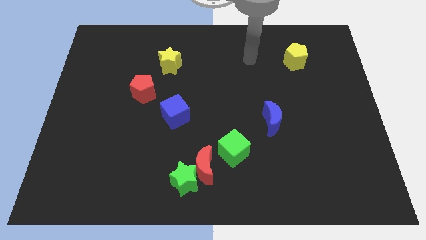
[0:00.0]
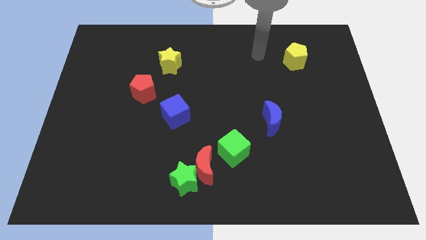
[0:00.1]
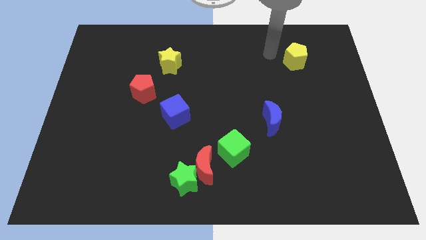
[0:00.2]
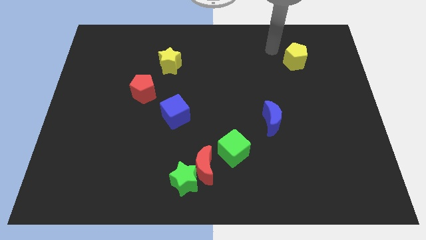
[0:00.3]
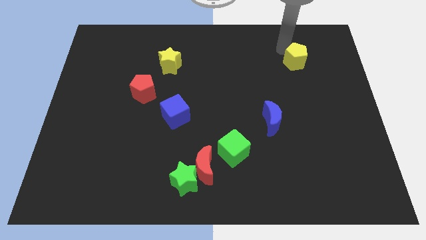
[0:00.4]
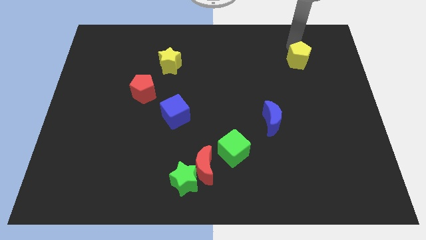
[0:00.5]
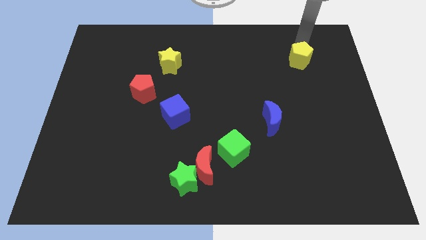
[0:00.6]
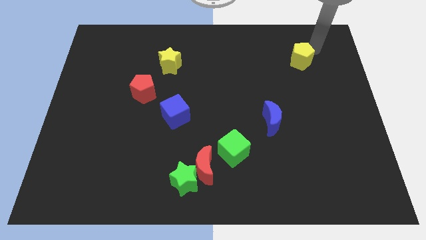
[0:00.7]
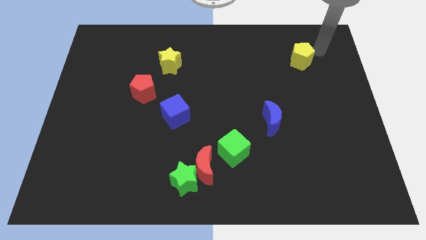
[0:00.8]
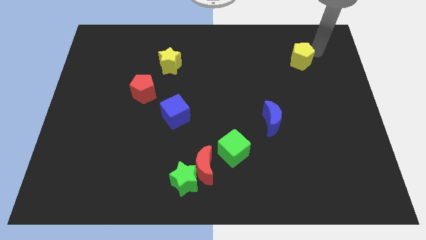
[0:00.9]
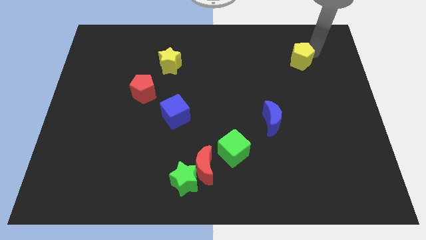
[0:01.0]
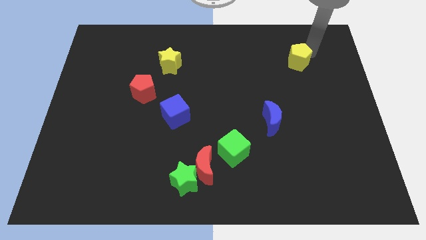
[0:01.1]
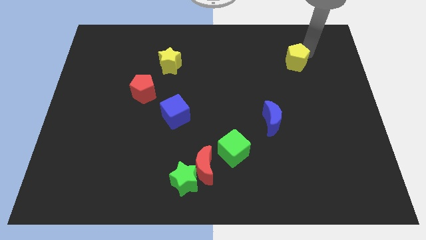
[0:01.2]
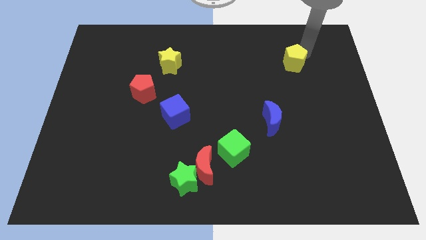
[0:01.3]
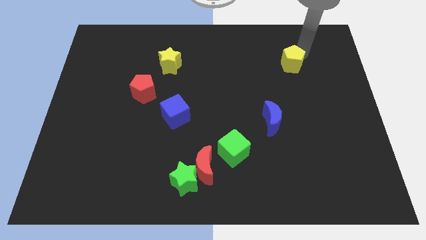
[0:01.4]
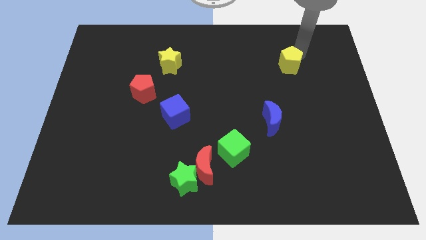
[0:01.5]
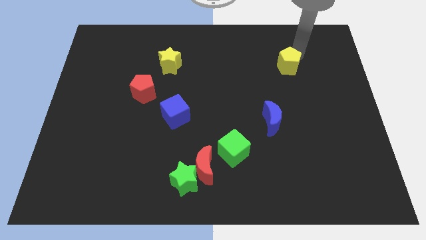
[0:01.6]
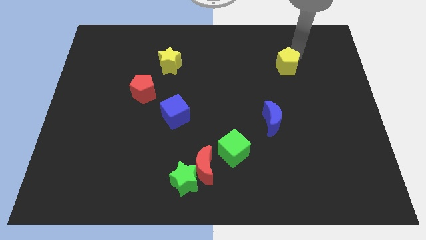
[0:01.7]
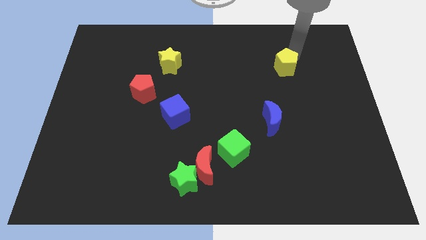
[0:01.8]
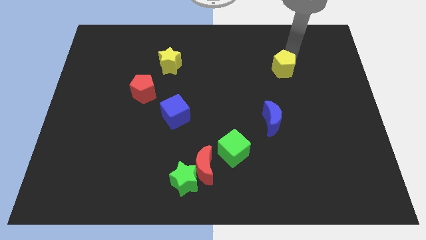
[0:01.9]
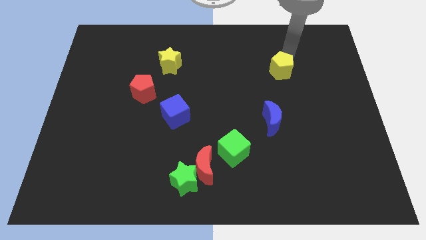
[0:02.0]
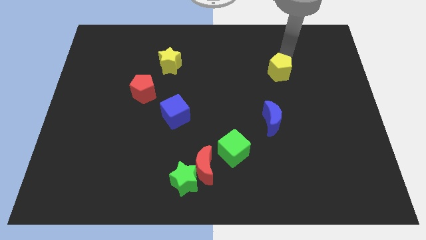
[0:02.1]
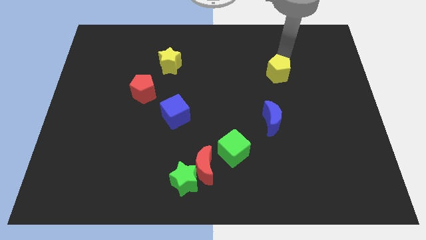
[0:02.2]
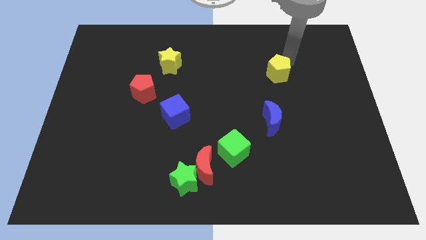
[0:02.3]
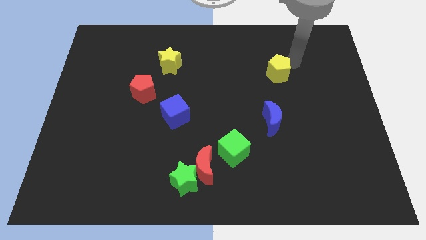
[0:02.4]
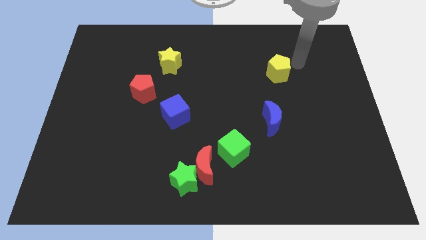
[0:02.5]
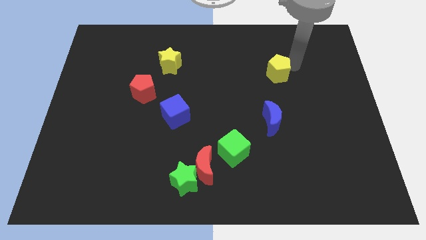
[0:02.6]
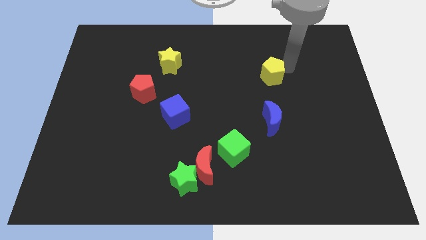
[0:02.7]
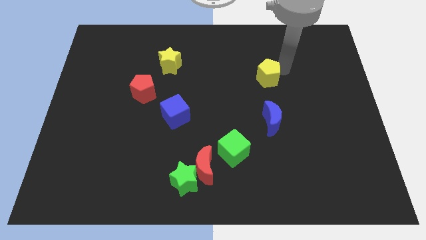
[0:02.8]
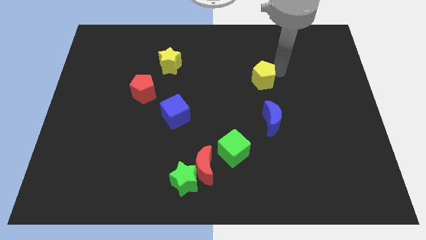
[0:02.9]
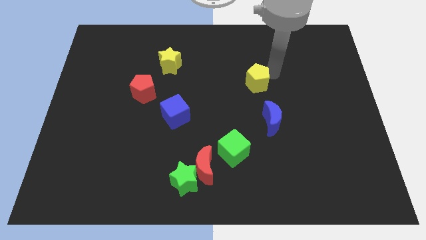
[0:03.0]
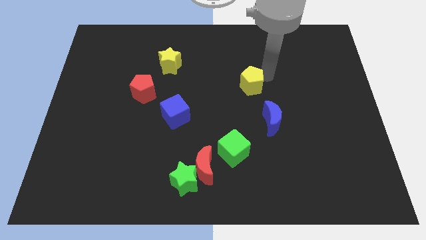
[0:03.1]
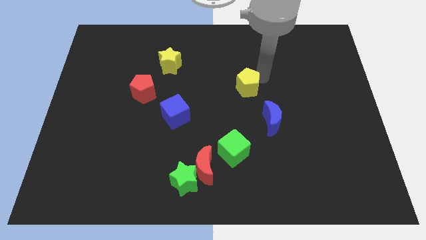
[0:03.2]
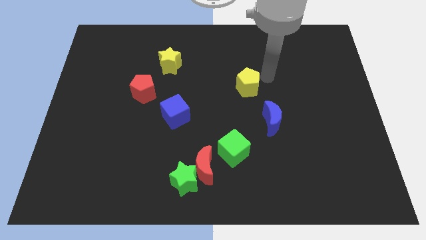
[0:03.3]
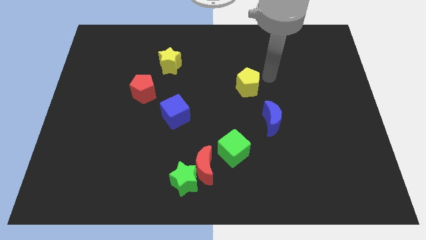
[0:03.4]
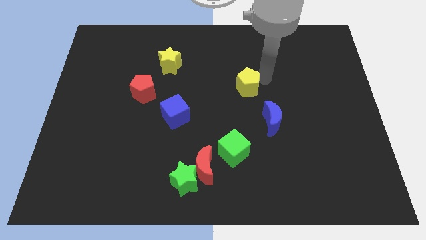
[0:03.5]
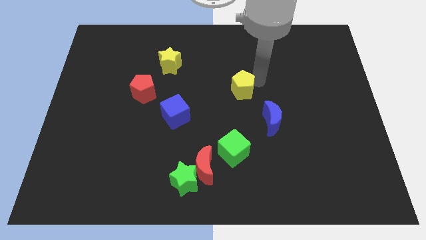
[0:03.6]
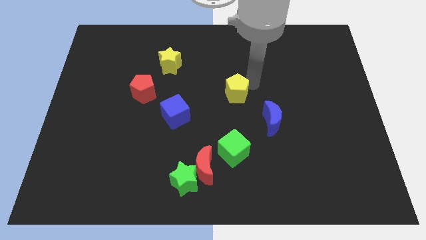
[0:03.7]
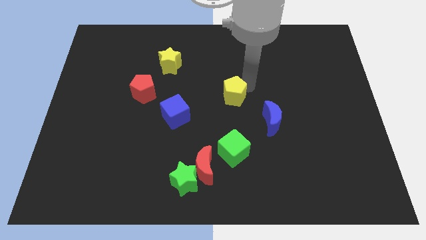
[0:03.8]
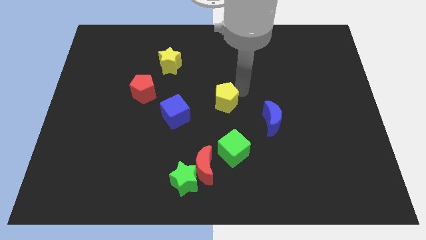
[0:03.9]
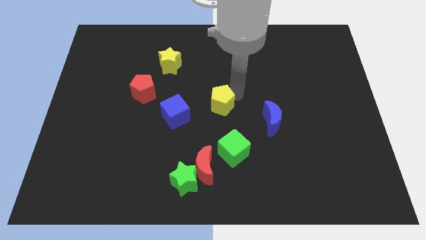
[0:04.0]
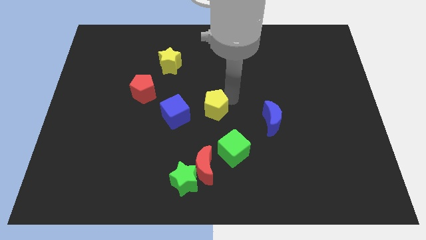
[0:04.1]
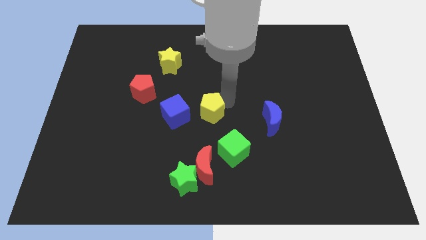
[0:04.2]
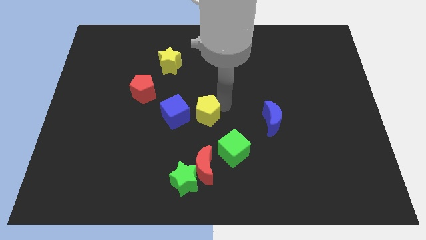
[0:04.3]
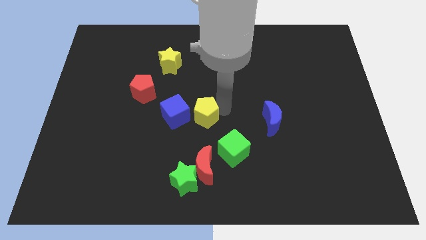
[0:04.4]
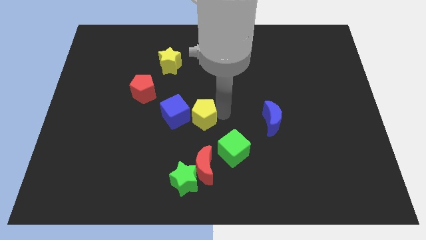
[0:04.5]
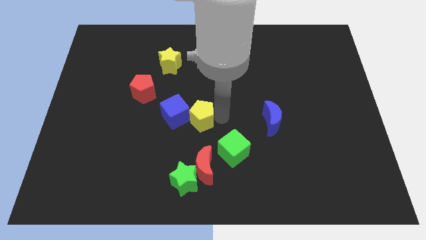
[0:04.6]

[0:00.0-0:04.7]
slide the yellow pentagon towards the blue cube

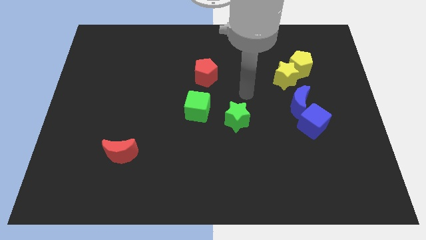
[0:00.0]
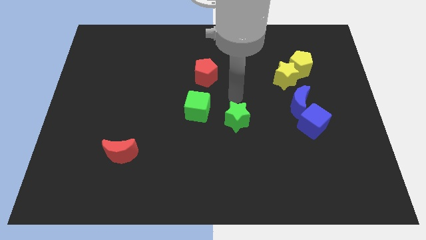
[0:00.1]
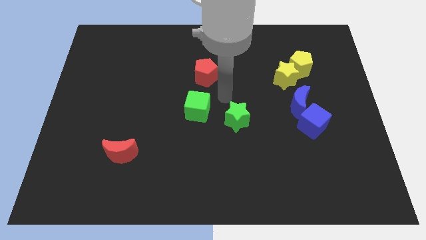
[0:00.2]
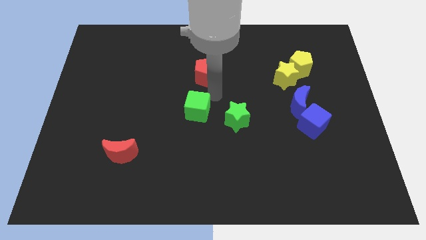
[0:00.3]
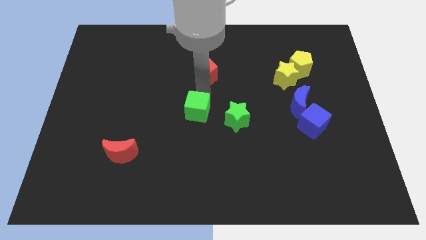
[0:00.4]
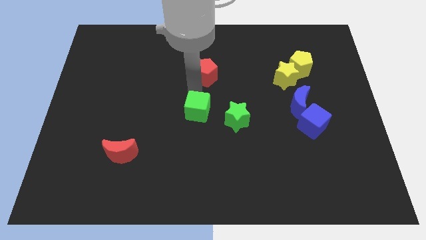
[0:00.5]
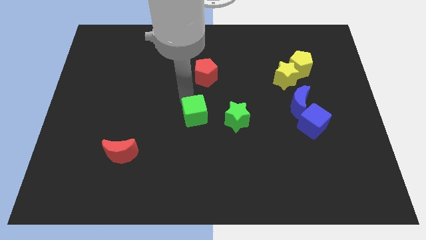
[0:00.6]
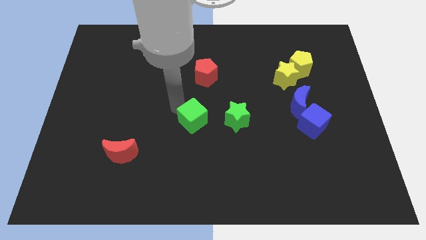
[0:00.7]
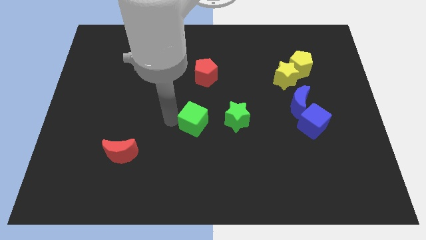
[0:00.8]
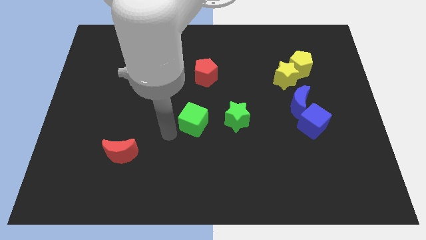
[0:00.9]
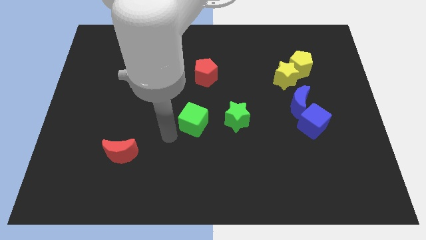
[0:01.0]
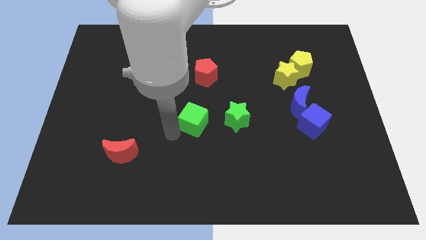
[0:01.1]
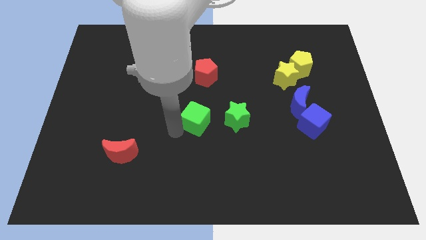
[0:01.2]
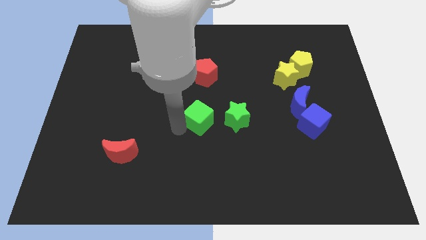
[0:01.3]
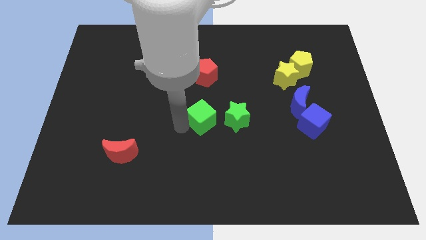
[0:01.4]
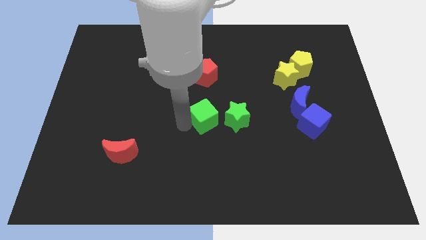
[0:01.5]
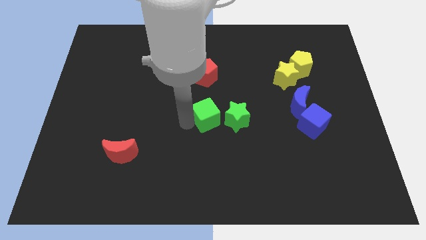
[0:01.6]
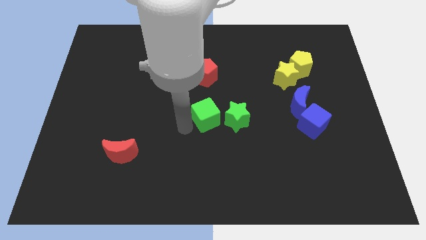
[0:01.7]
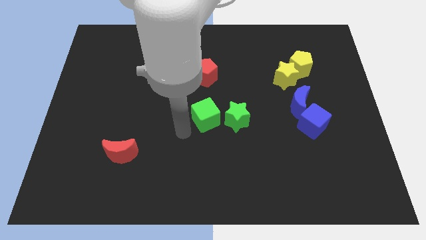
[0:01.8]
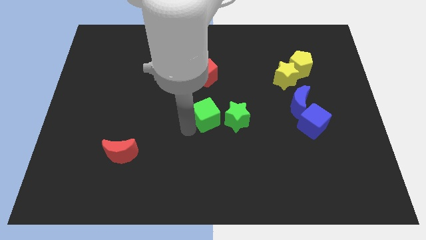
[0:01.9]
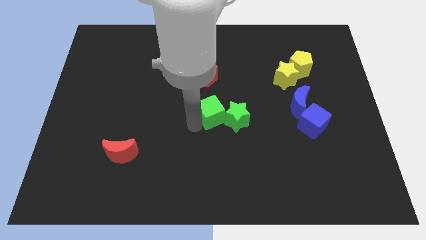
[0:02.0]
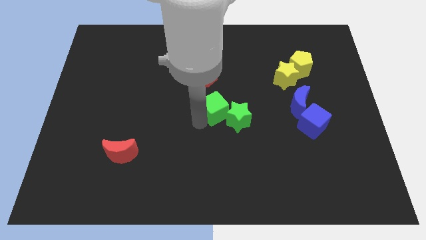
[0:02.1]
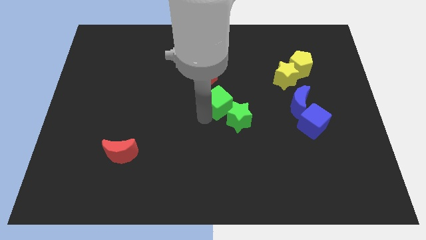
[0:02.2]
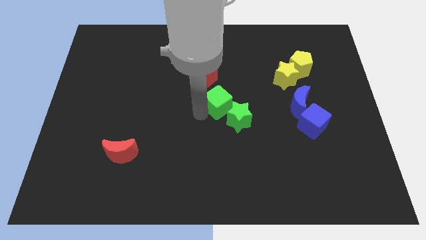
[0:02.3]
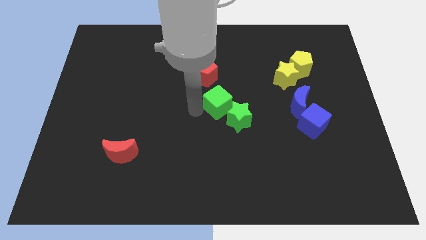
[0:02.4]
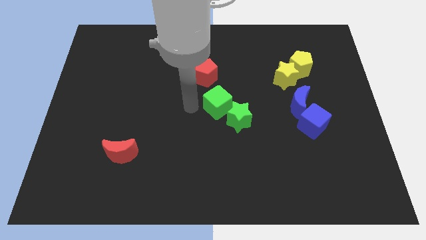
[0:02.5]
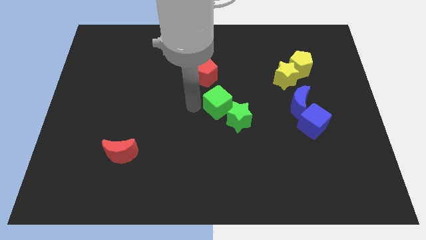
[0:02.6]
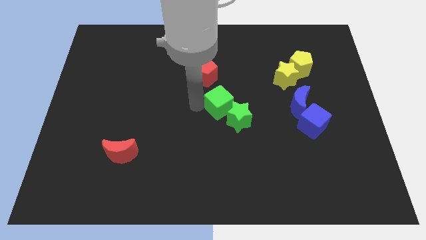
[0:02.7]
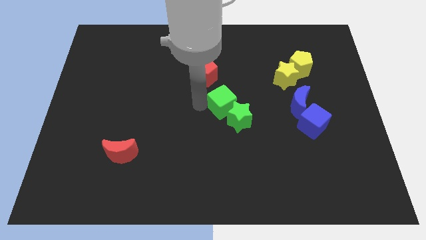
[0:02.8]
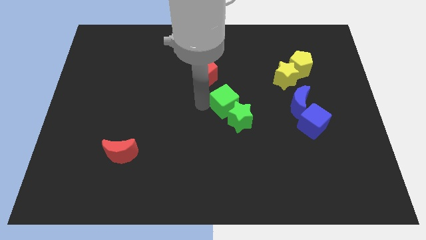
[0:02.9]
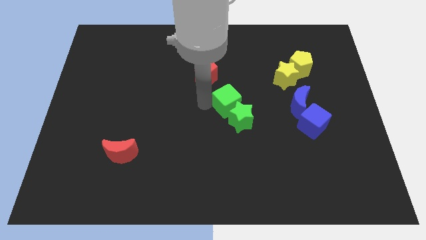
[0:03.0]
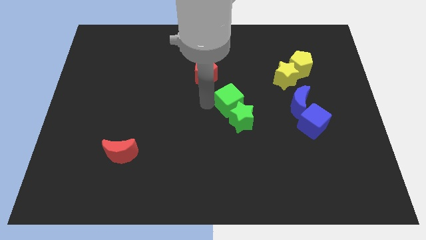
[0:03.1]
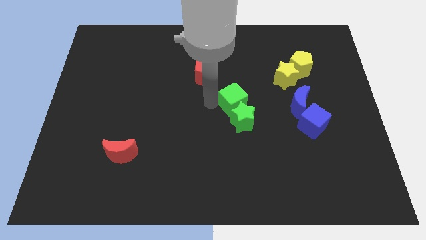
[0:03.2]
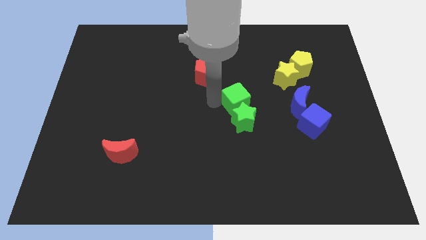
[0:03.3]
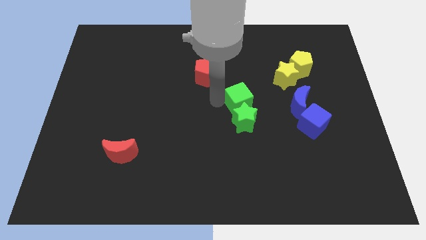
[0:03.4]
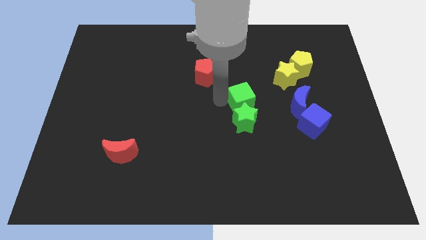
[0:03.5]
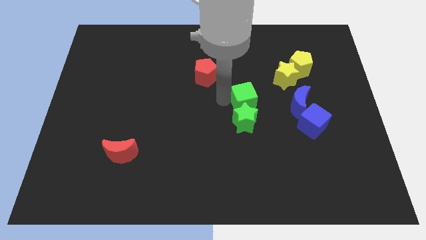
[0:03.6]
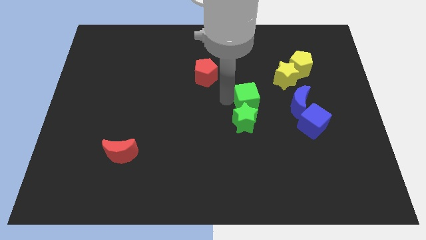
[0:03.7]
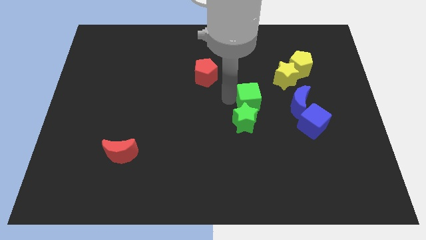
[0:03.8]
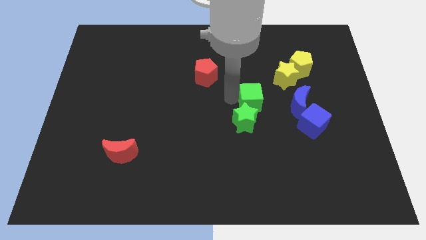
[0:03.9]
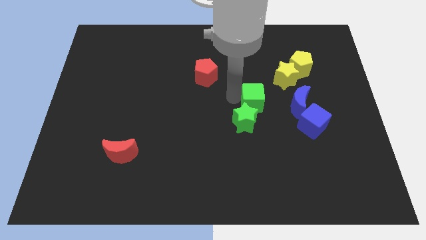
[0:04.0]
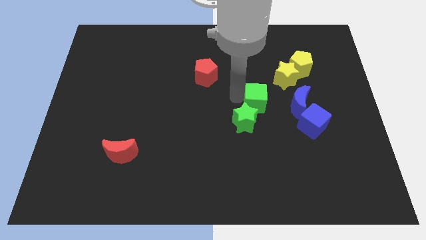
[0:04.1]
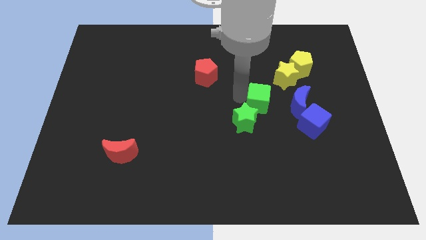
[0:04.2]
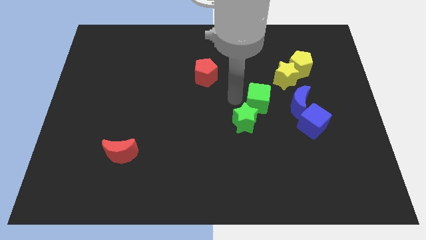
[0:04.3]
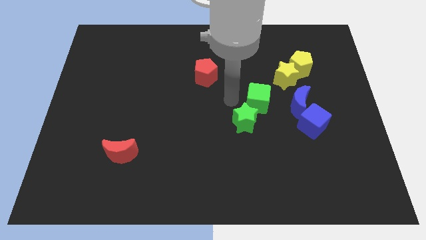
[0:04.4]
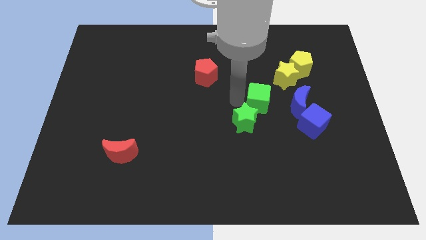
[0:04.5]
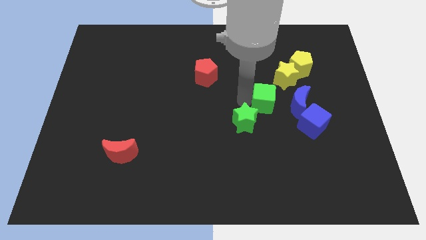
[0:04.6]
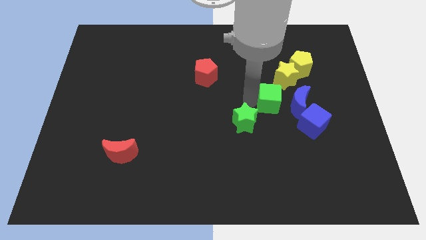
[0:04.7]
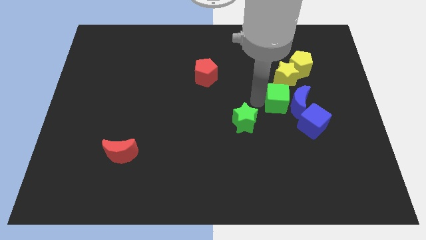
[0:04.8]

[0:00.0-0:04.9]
move the green cube next to the blue moon
